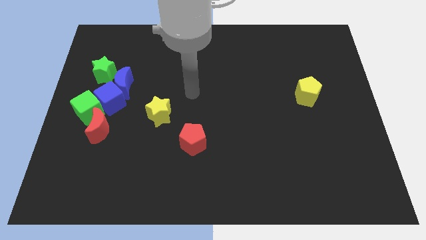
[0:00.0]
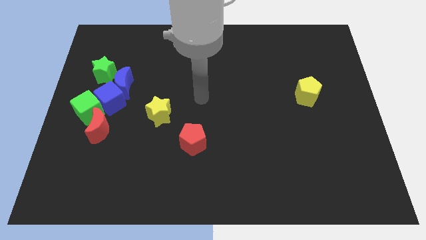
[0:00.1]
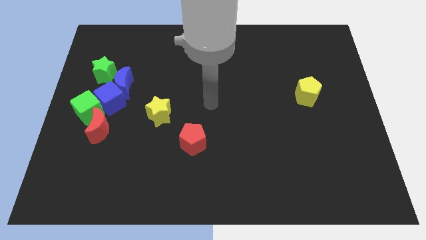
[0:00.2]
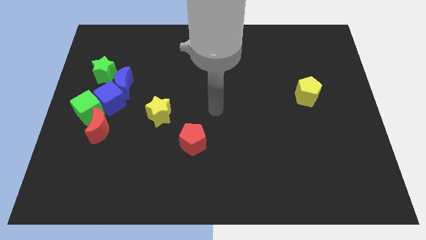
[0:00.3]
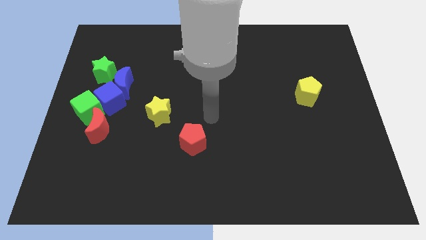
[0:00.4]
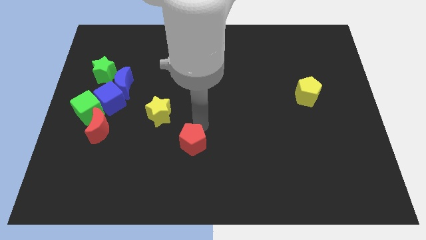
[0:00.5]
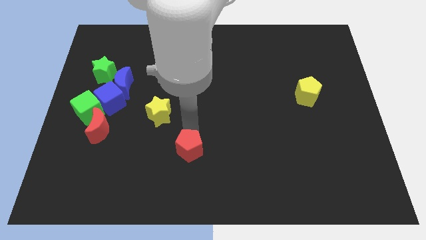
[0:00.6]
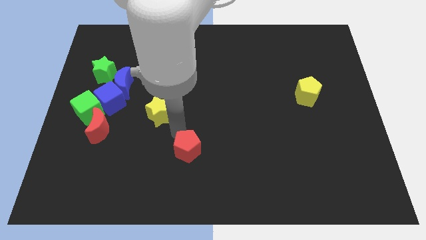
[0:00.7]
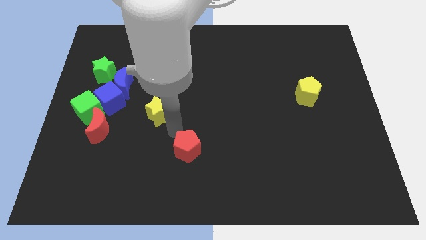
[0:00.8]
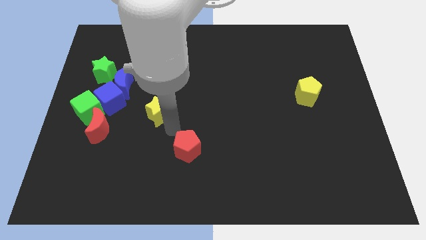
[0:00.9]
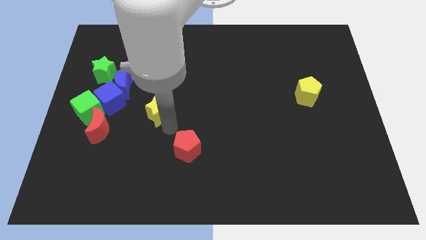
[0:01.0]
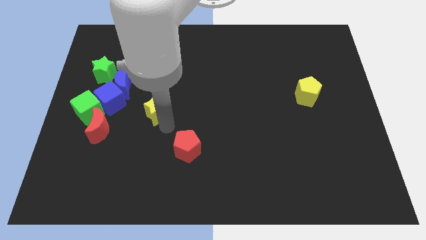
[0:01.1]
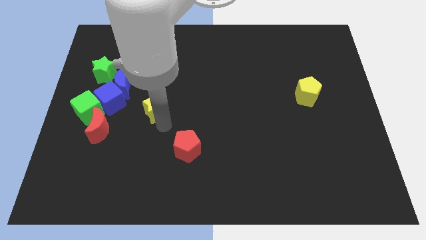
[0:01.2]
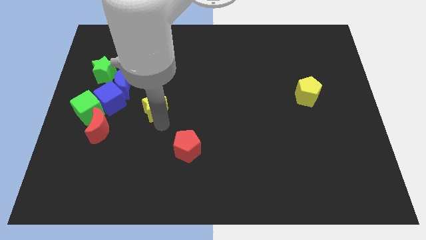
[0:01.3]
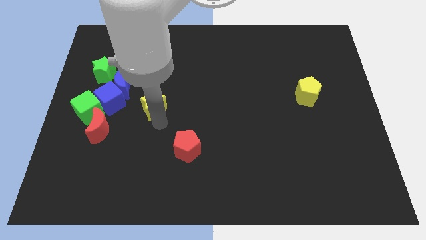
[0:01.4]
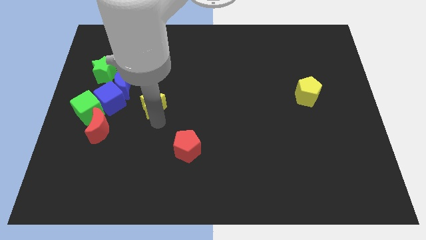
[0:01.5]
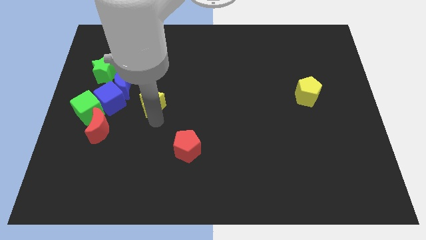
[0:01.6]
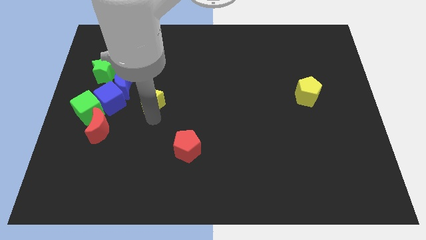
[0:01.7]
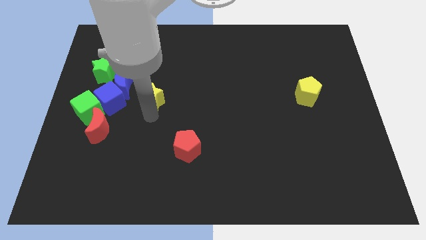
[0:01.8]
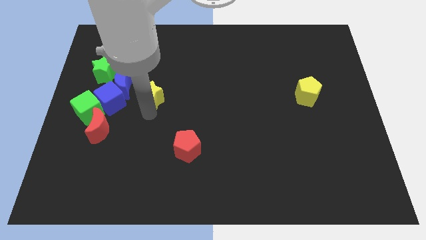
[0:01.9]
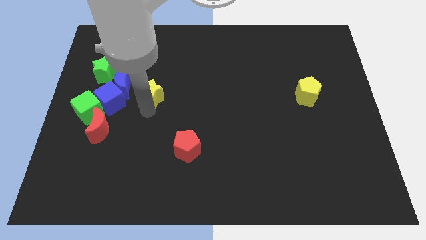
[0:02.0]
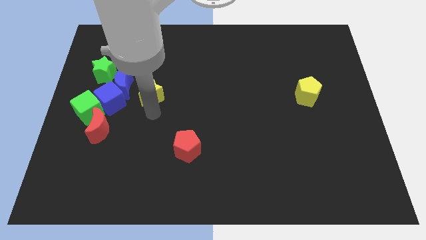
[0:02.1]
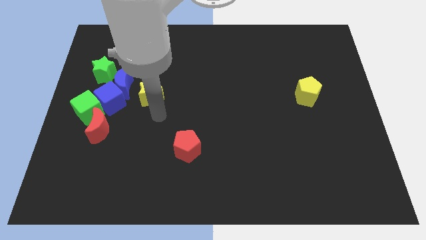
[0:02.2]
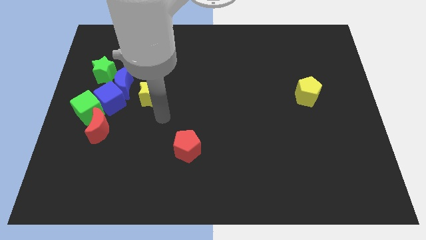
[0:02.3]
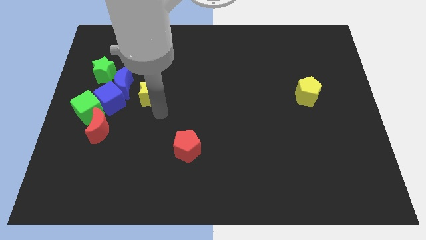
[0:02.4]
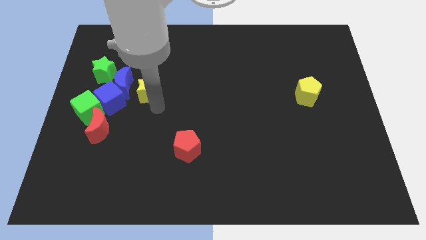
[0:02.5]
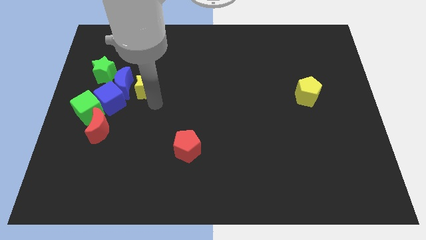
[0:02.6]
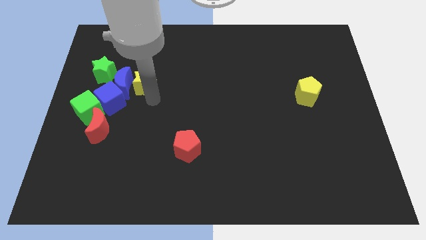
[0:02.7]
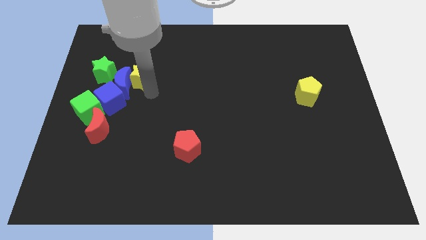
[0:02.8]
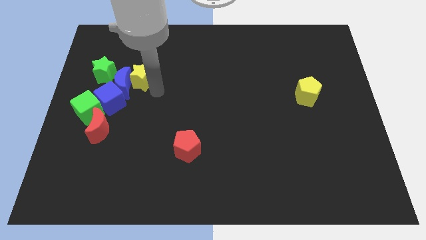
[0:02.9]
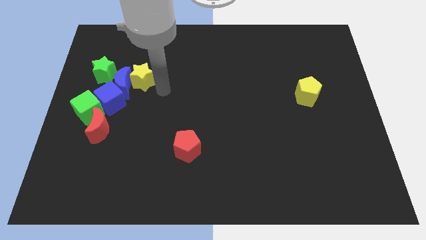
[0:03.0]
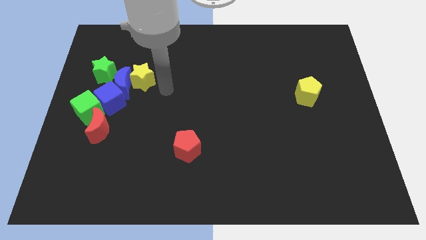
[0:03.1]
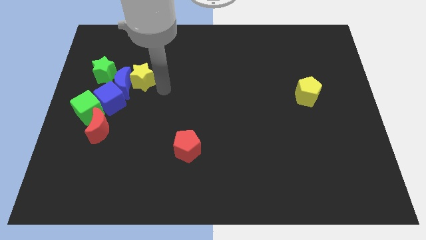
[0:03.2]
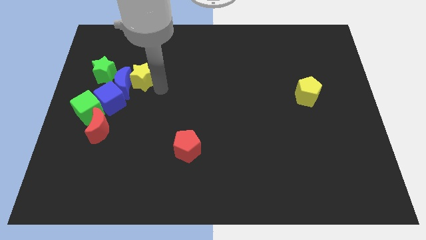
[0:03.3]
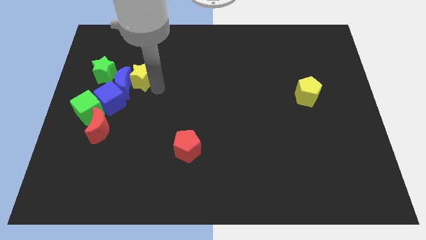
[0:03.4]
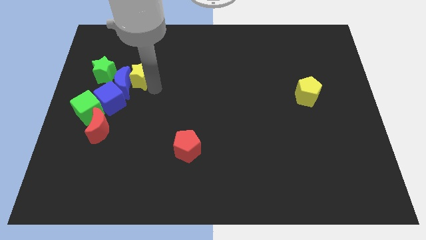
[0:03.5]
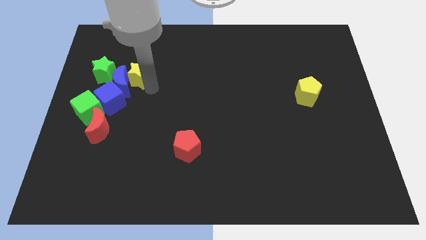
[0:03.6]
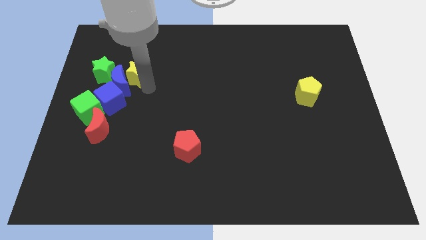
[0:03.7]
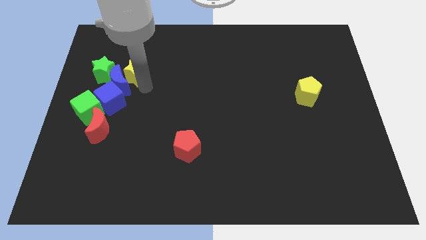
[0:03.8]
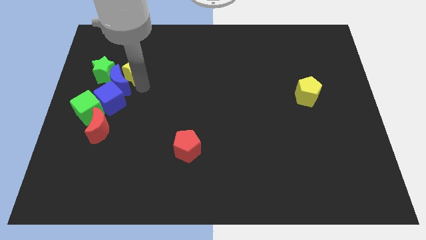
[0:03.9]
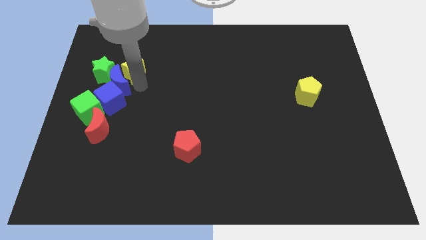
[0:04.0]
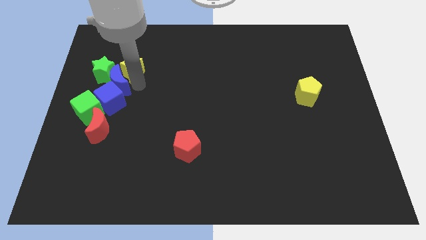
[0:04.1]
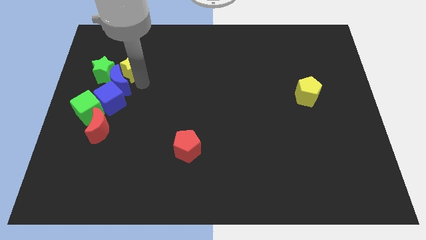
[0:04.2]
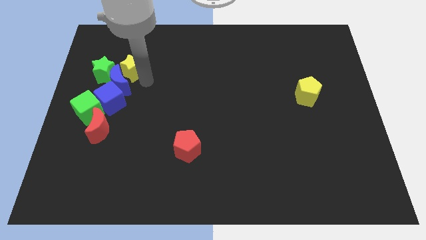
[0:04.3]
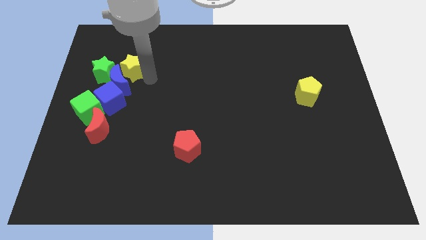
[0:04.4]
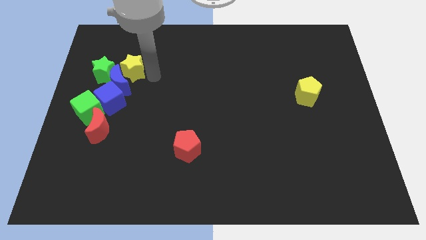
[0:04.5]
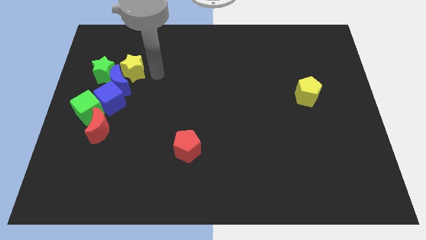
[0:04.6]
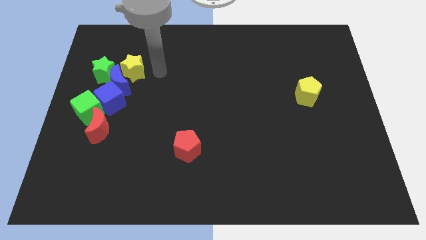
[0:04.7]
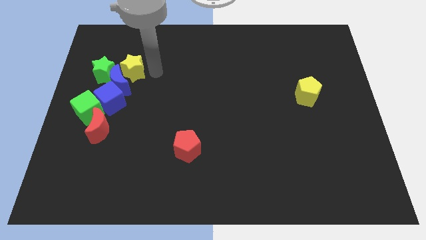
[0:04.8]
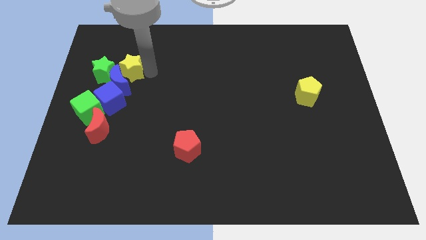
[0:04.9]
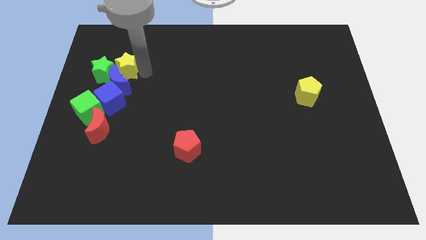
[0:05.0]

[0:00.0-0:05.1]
slide the yellow star towards the green star

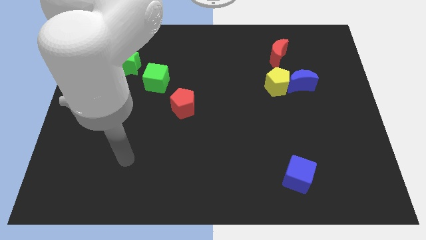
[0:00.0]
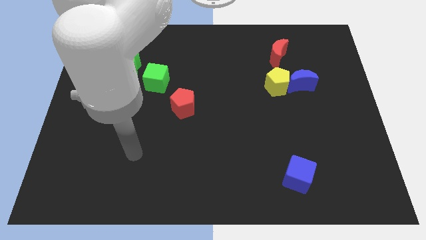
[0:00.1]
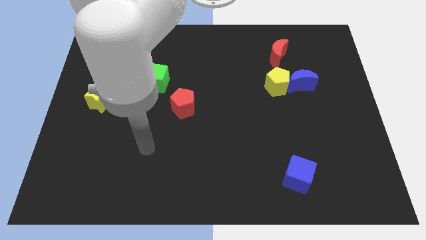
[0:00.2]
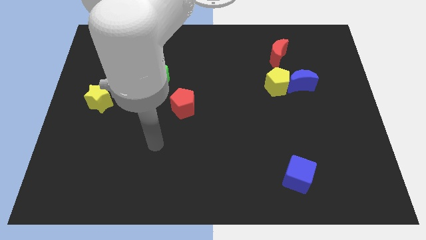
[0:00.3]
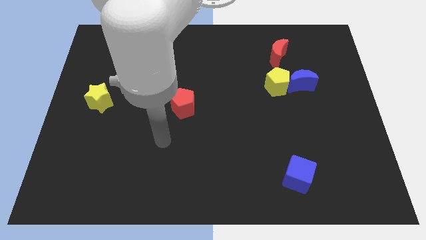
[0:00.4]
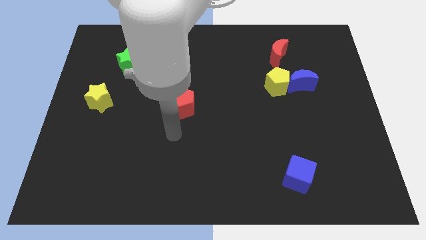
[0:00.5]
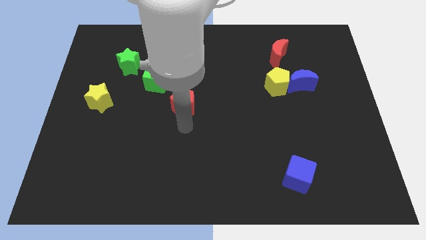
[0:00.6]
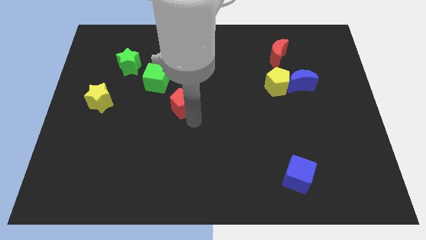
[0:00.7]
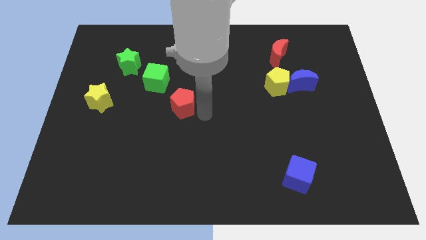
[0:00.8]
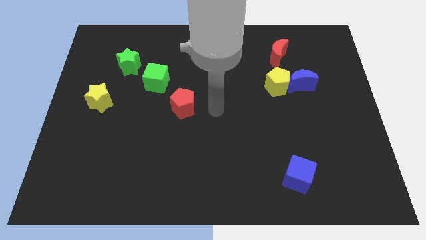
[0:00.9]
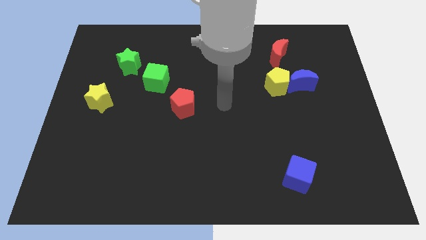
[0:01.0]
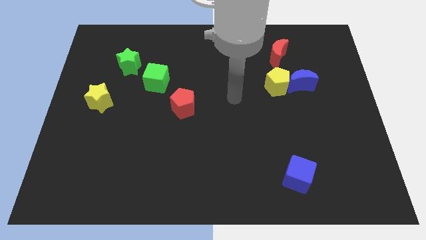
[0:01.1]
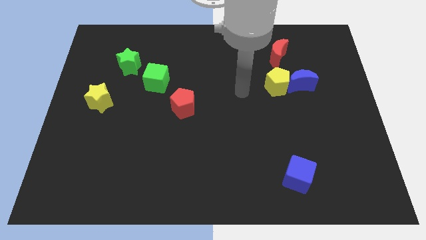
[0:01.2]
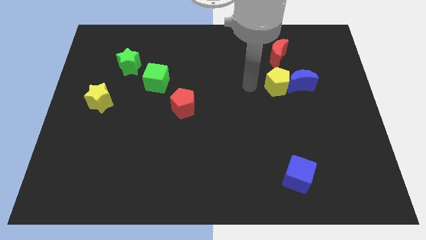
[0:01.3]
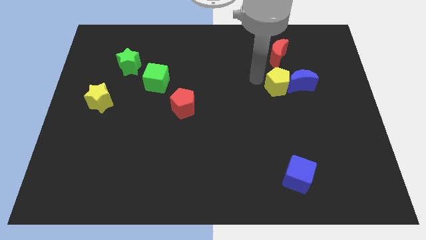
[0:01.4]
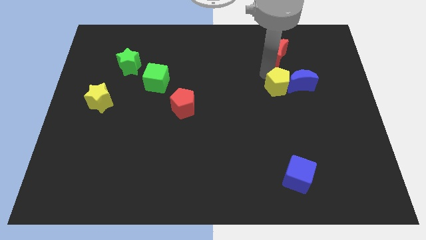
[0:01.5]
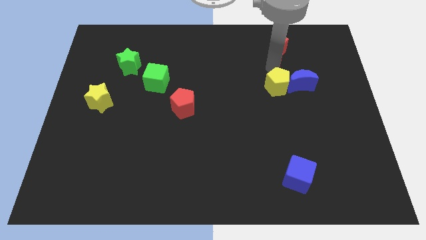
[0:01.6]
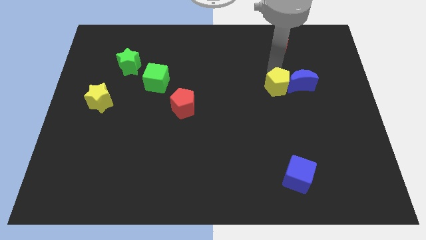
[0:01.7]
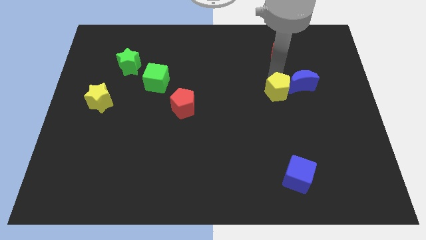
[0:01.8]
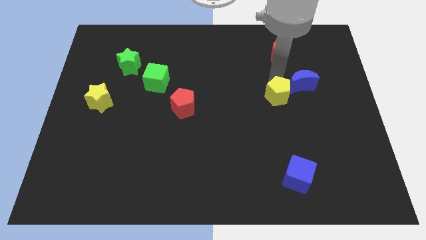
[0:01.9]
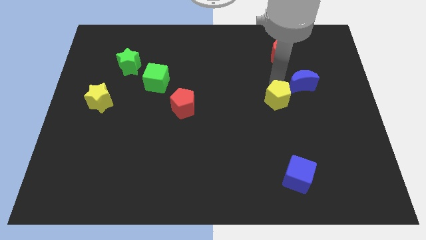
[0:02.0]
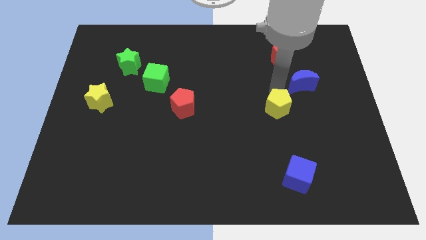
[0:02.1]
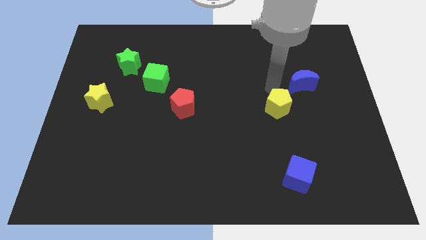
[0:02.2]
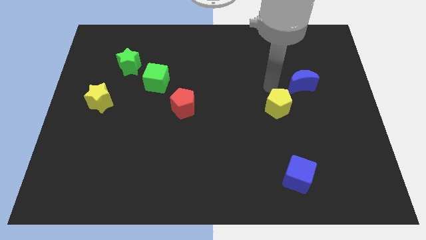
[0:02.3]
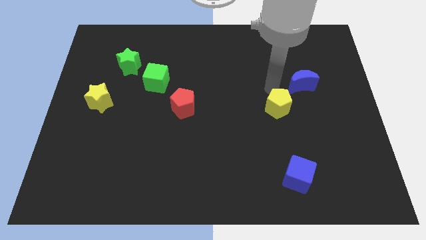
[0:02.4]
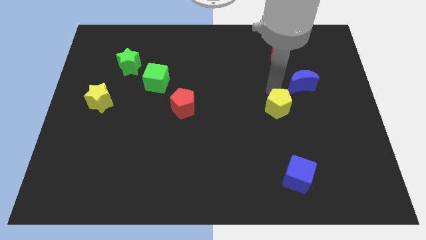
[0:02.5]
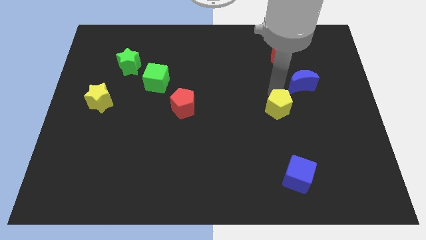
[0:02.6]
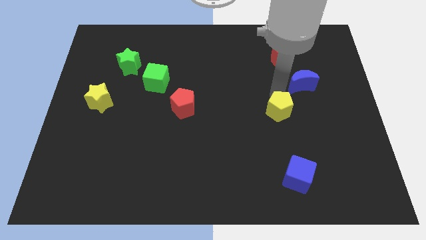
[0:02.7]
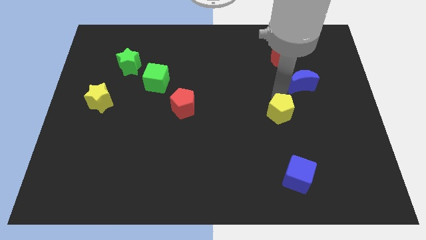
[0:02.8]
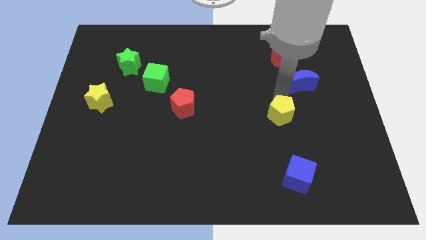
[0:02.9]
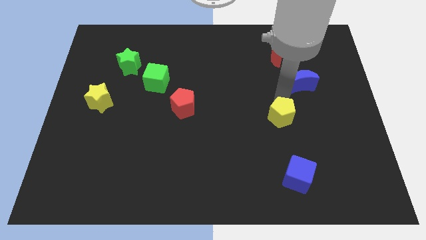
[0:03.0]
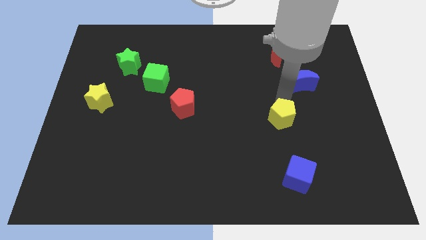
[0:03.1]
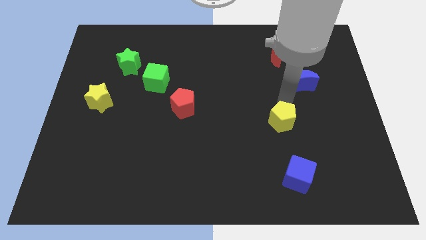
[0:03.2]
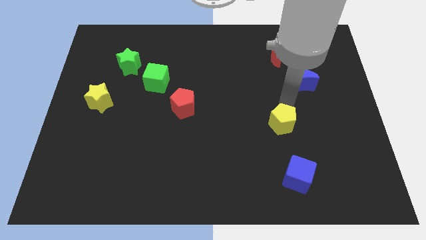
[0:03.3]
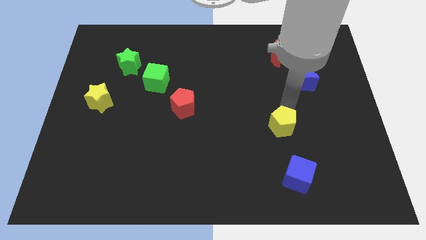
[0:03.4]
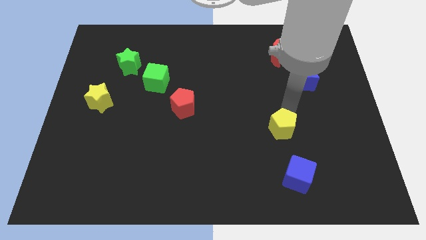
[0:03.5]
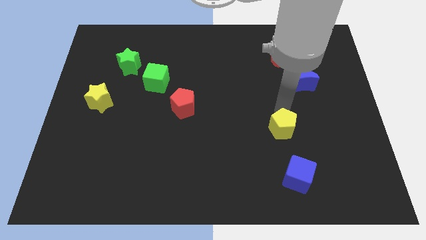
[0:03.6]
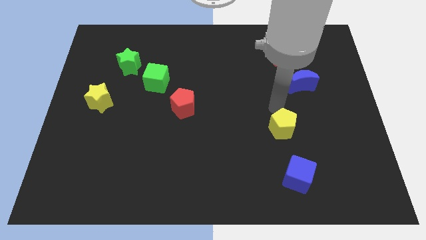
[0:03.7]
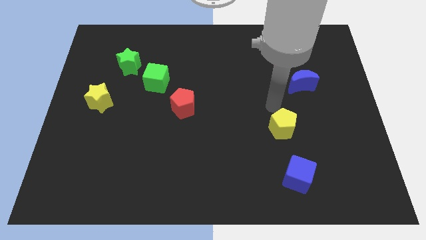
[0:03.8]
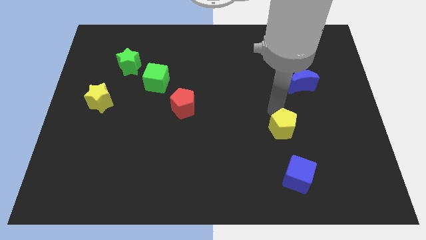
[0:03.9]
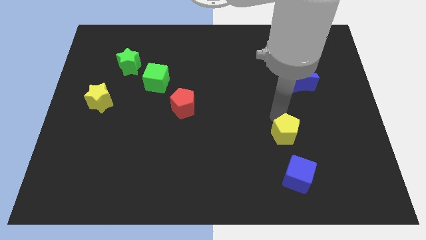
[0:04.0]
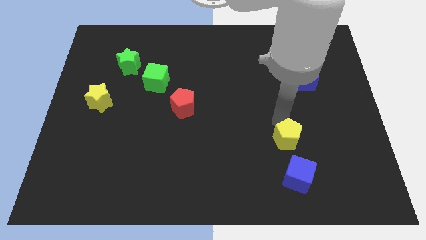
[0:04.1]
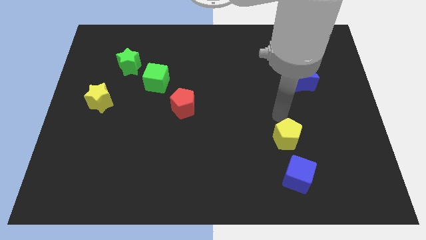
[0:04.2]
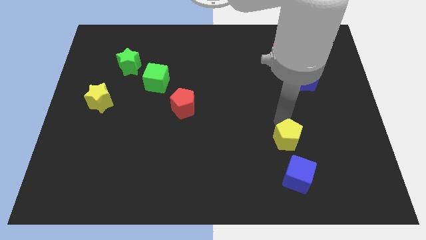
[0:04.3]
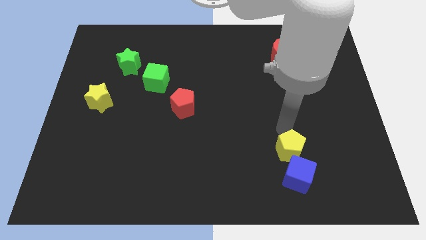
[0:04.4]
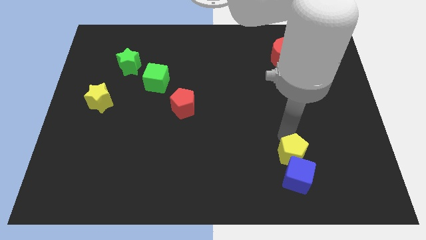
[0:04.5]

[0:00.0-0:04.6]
put the yellow pentagon to the blue cube
